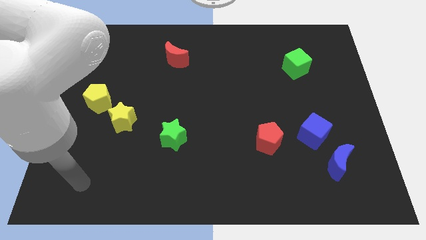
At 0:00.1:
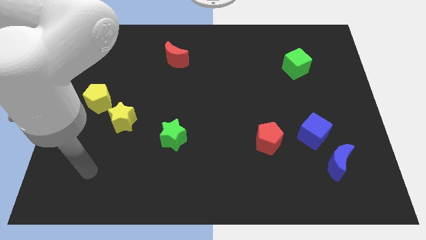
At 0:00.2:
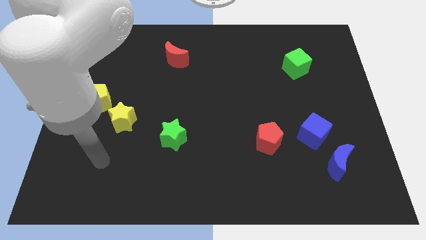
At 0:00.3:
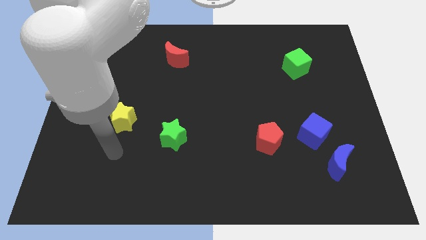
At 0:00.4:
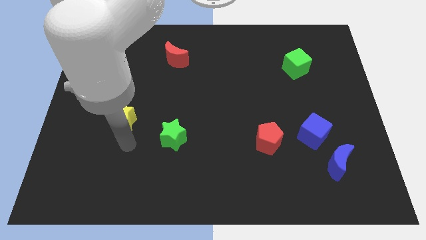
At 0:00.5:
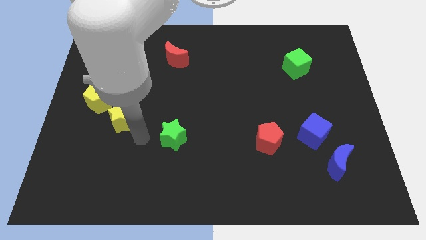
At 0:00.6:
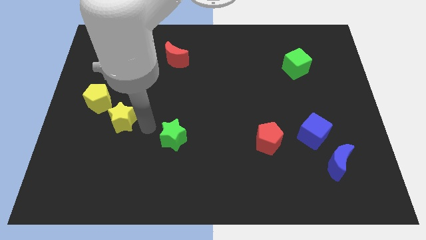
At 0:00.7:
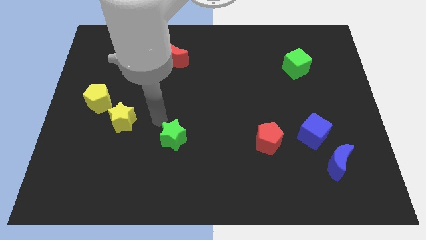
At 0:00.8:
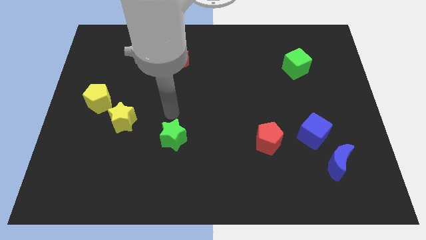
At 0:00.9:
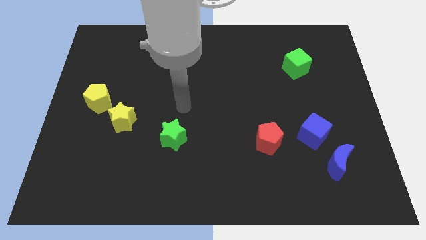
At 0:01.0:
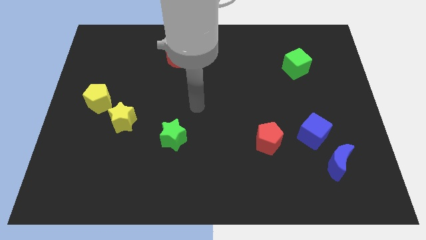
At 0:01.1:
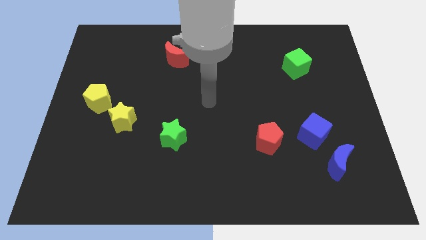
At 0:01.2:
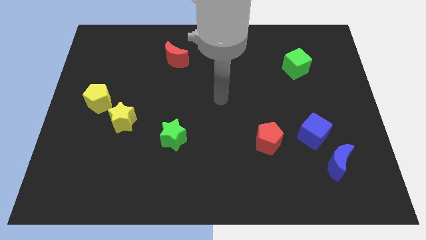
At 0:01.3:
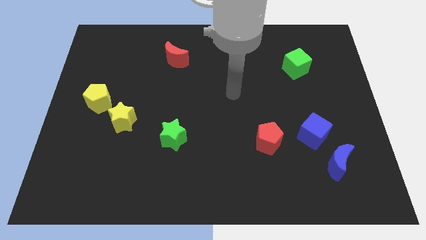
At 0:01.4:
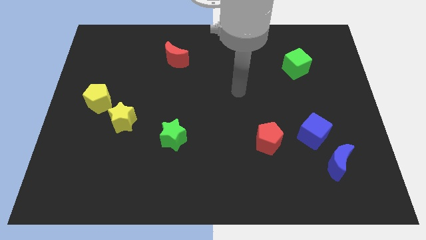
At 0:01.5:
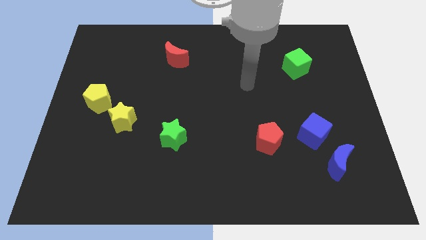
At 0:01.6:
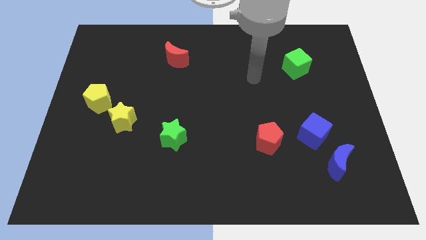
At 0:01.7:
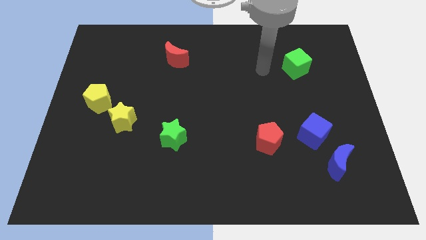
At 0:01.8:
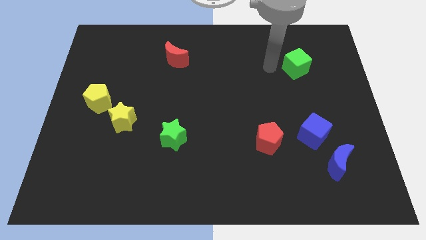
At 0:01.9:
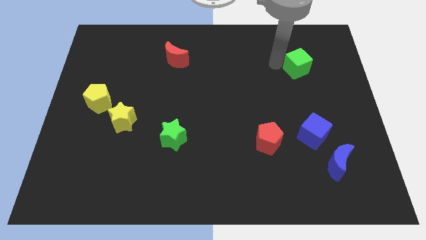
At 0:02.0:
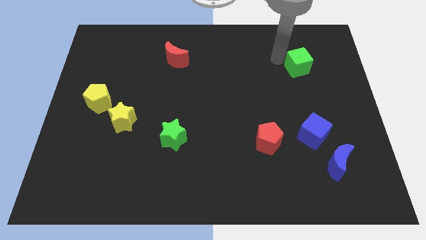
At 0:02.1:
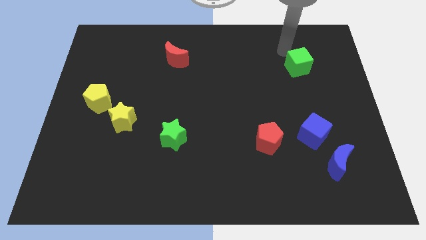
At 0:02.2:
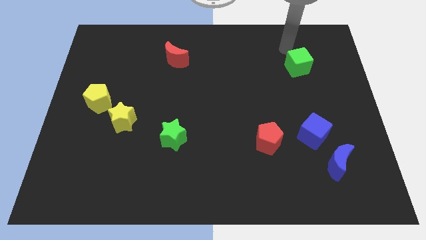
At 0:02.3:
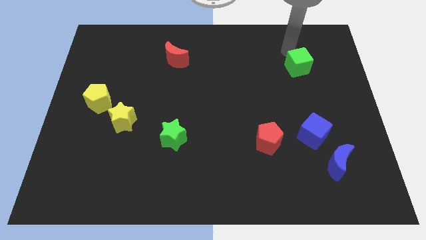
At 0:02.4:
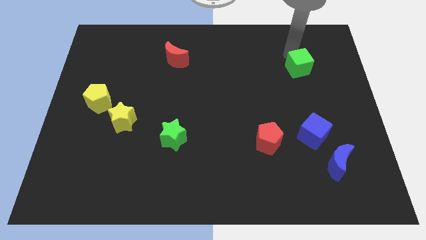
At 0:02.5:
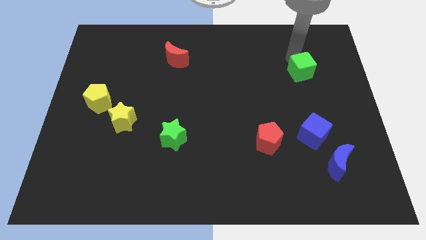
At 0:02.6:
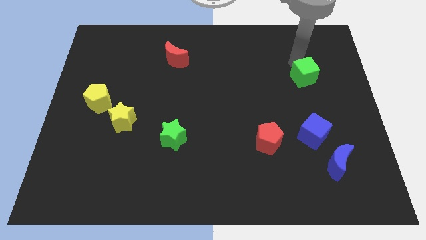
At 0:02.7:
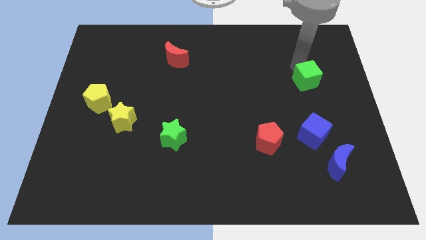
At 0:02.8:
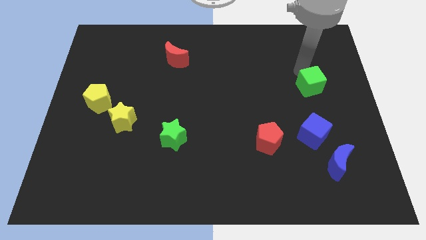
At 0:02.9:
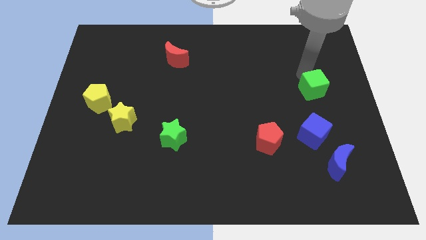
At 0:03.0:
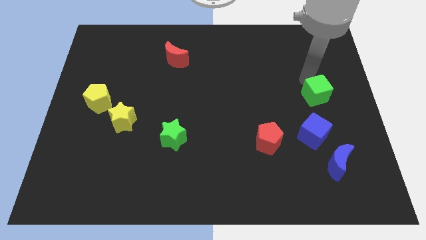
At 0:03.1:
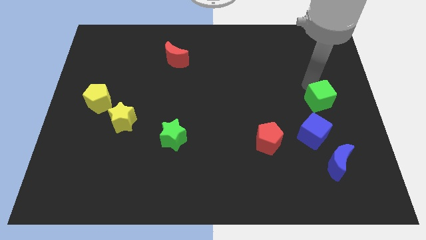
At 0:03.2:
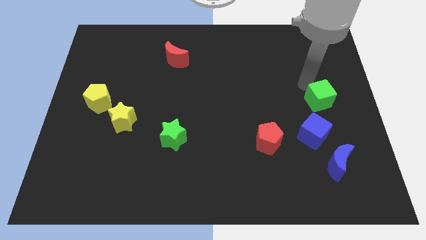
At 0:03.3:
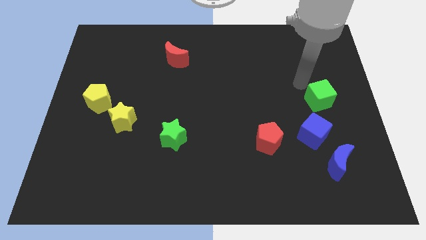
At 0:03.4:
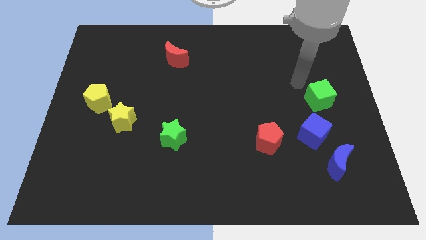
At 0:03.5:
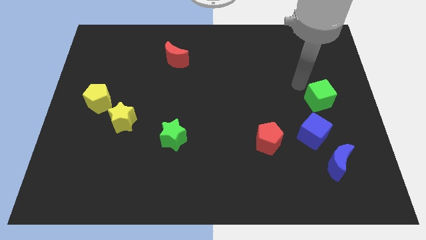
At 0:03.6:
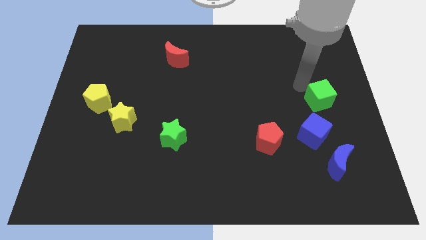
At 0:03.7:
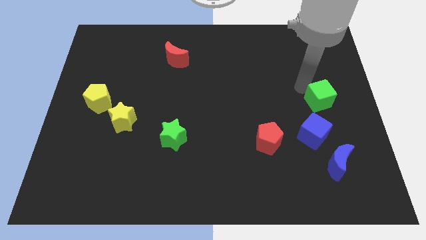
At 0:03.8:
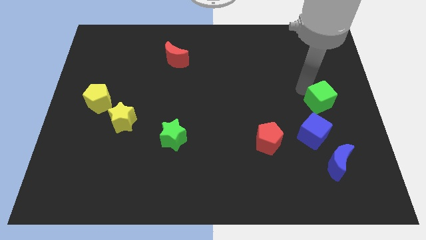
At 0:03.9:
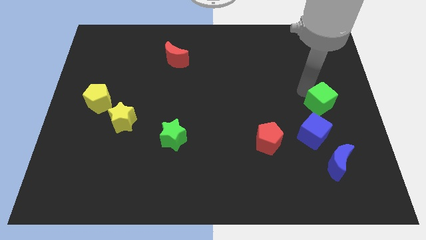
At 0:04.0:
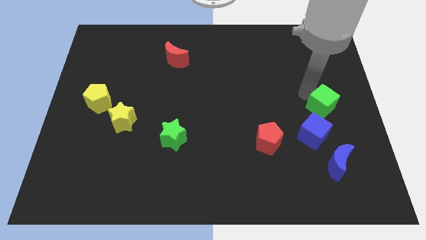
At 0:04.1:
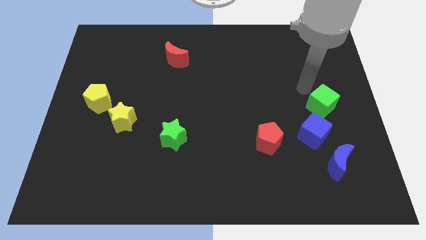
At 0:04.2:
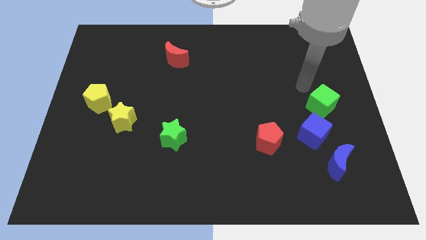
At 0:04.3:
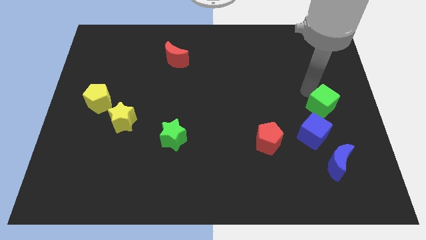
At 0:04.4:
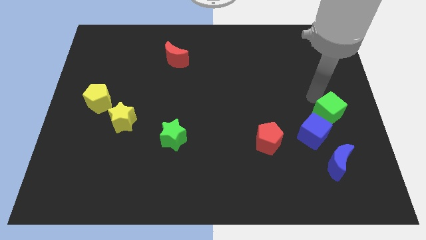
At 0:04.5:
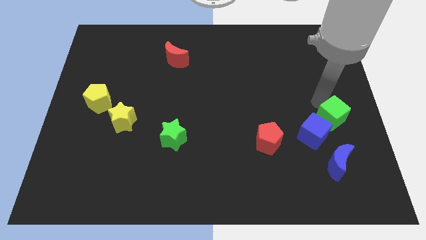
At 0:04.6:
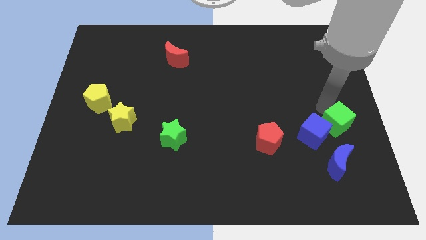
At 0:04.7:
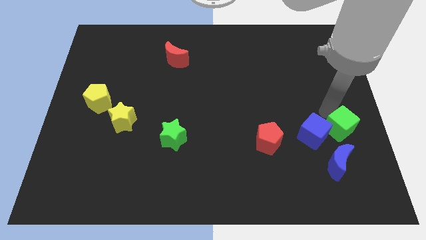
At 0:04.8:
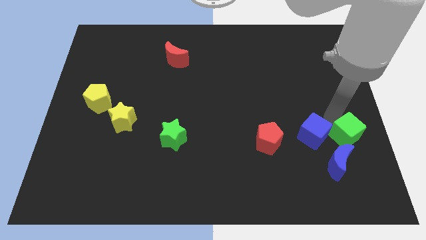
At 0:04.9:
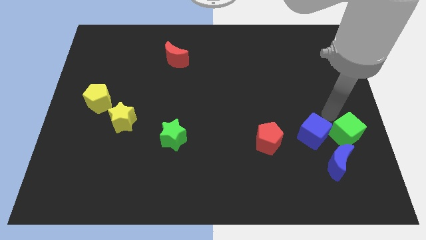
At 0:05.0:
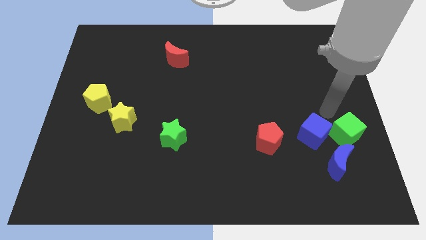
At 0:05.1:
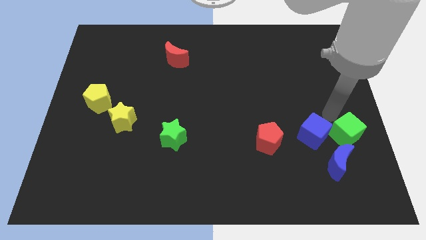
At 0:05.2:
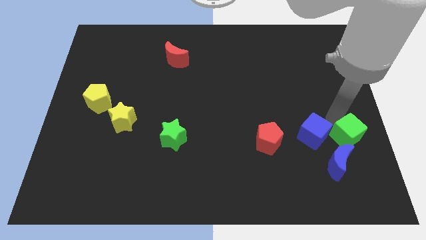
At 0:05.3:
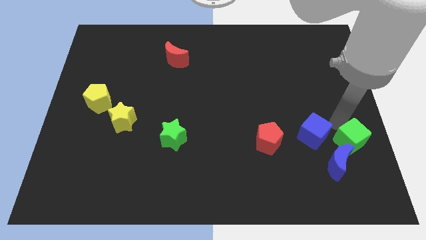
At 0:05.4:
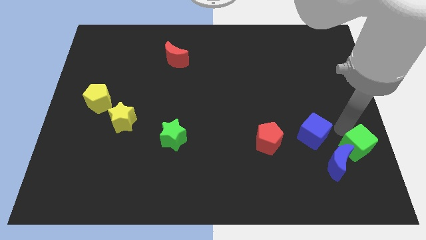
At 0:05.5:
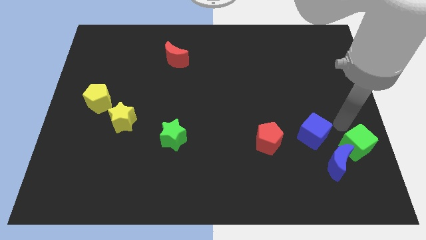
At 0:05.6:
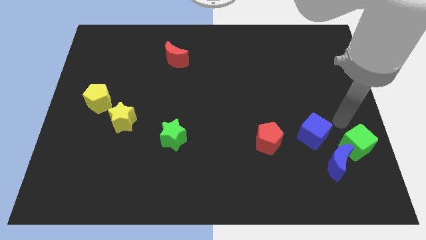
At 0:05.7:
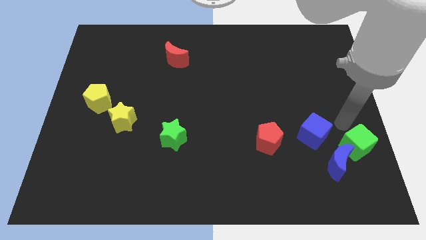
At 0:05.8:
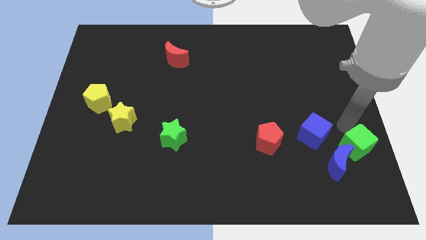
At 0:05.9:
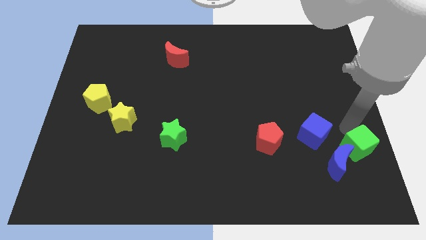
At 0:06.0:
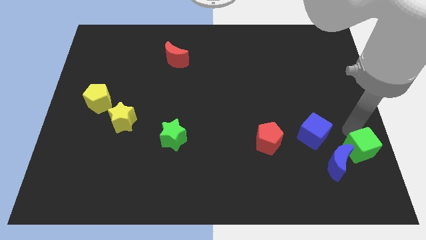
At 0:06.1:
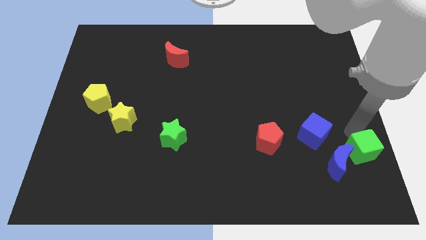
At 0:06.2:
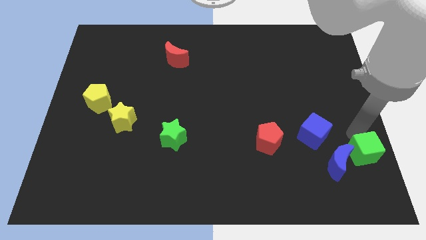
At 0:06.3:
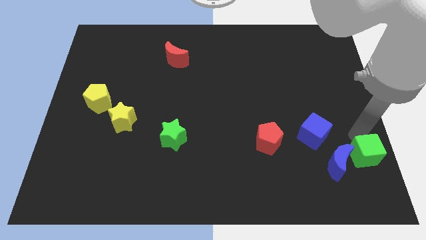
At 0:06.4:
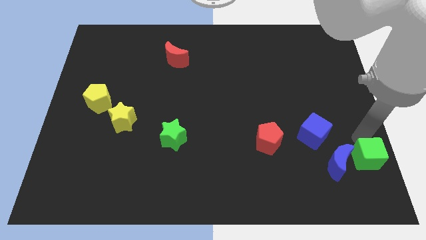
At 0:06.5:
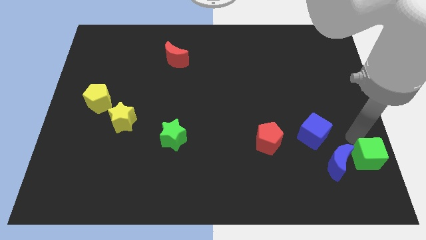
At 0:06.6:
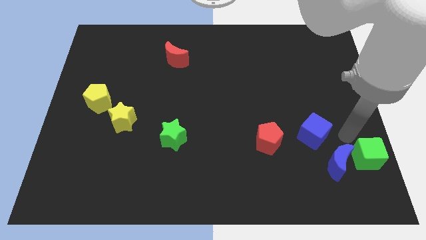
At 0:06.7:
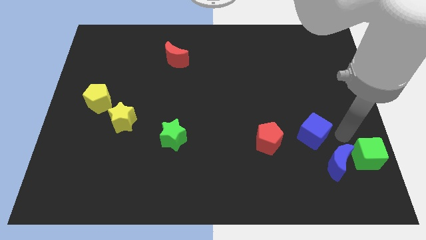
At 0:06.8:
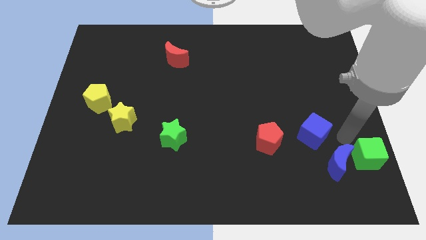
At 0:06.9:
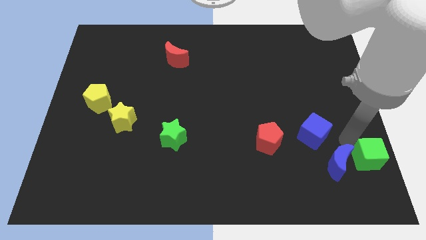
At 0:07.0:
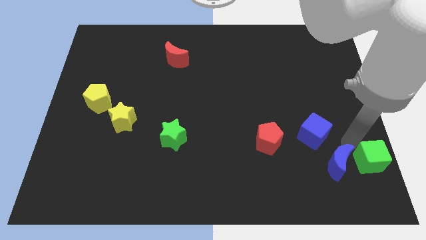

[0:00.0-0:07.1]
slide the green cube to the bottom right
